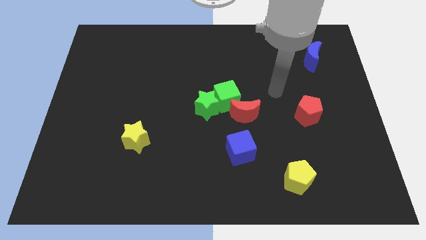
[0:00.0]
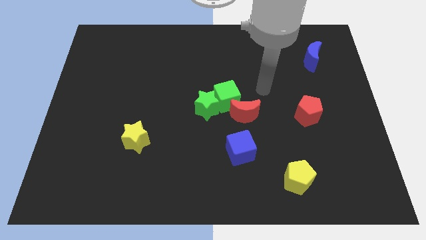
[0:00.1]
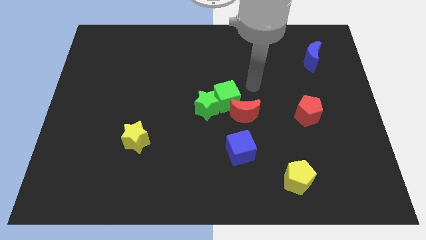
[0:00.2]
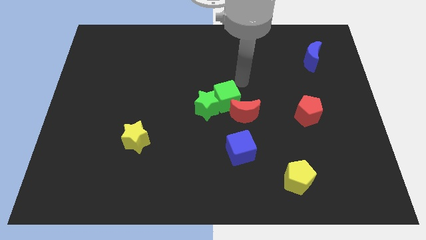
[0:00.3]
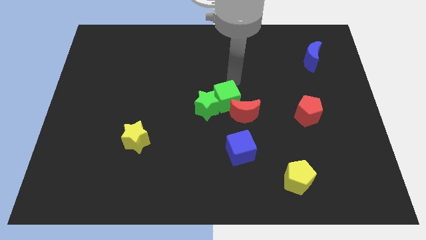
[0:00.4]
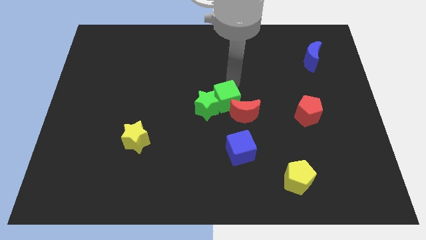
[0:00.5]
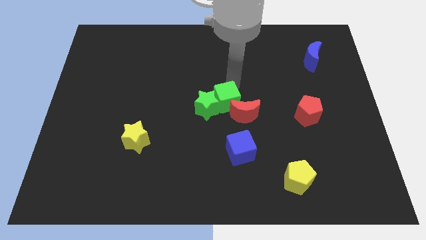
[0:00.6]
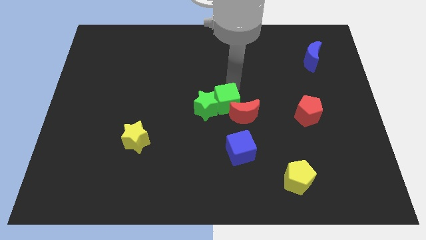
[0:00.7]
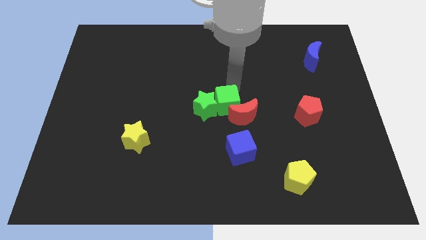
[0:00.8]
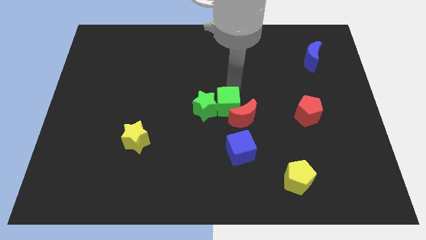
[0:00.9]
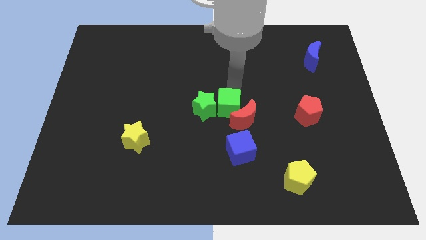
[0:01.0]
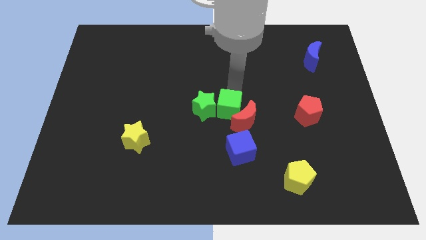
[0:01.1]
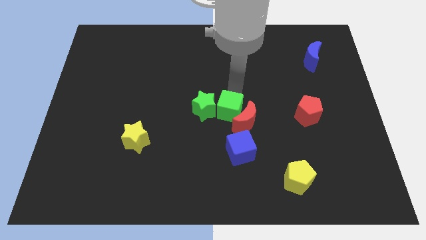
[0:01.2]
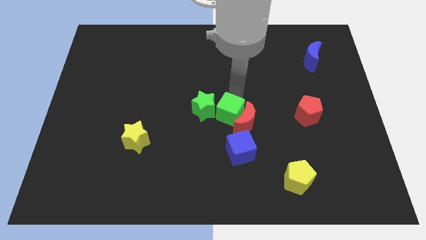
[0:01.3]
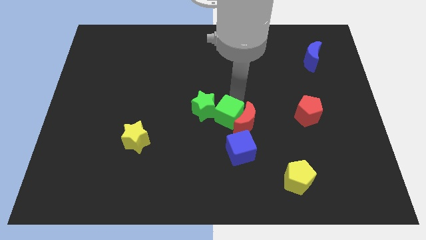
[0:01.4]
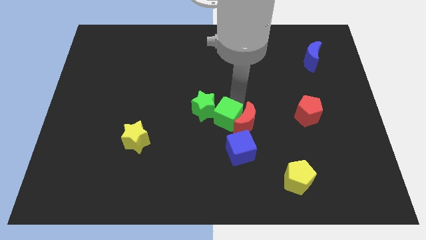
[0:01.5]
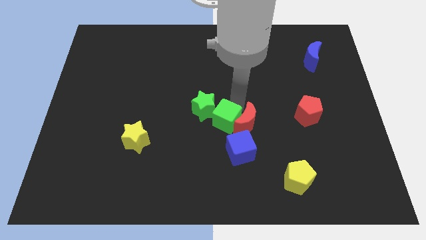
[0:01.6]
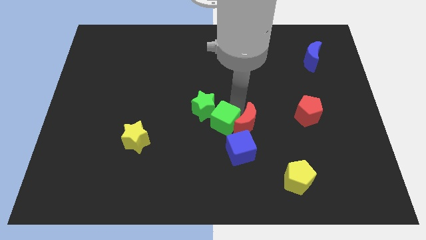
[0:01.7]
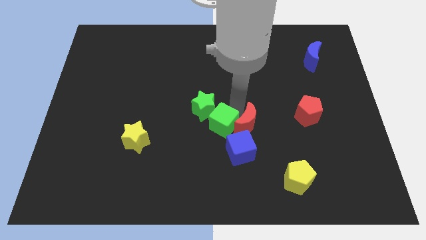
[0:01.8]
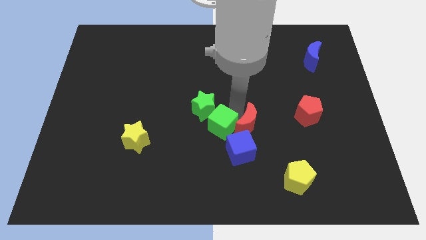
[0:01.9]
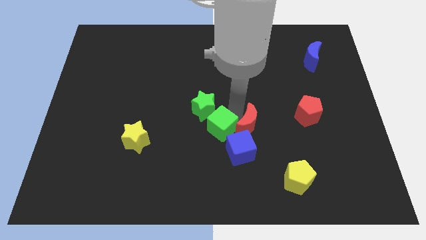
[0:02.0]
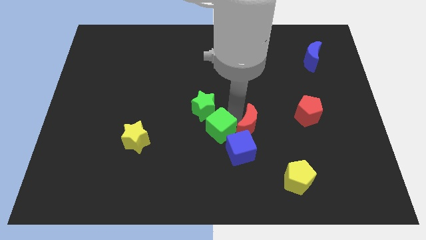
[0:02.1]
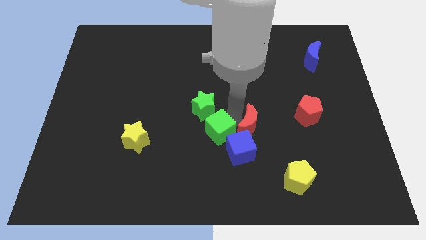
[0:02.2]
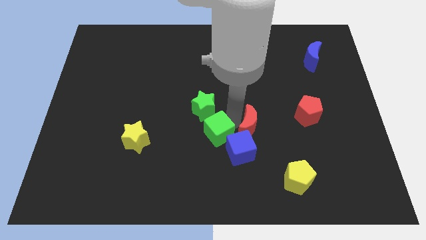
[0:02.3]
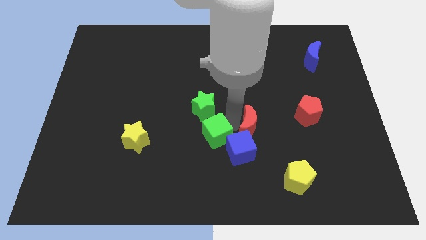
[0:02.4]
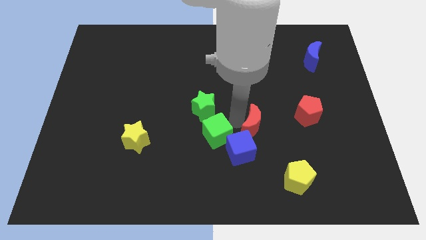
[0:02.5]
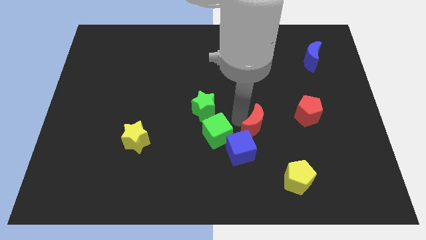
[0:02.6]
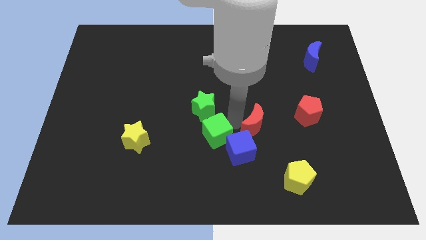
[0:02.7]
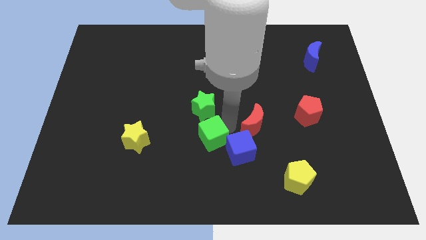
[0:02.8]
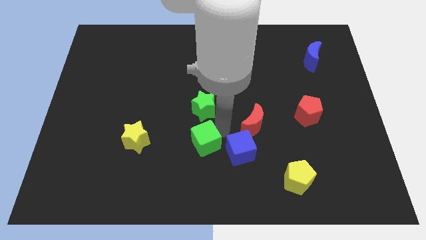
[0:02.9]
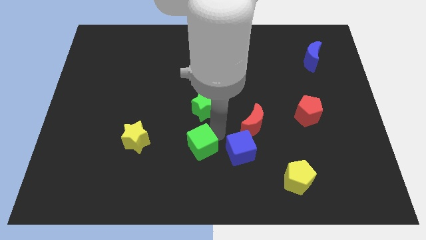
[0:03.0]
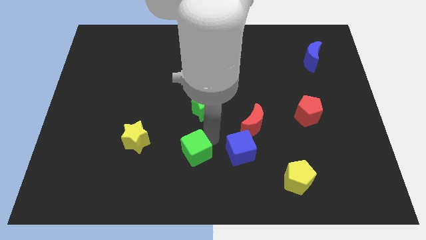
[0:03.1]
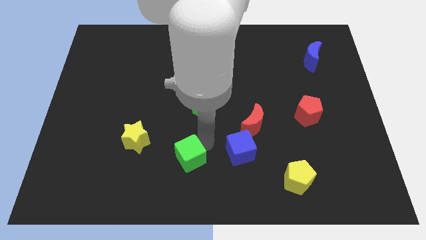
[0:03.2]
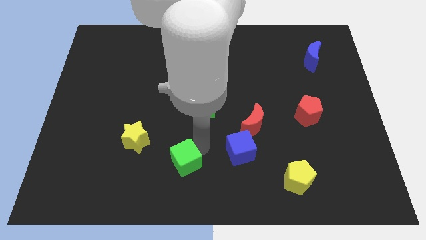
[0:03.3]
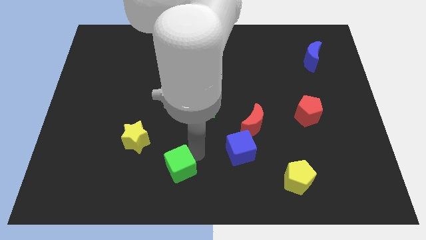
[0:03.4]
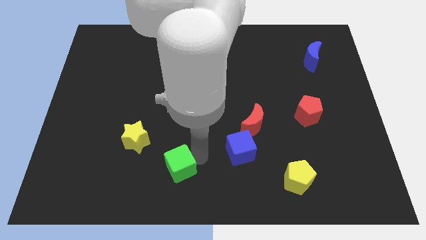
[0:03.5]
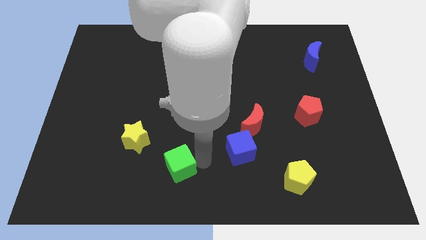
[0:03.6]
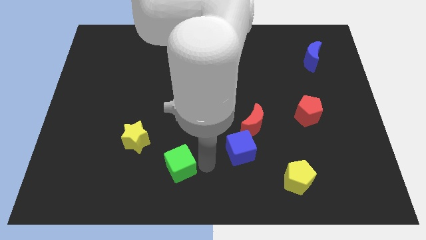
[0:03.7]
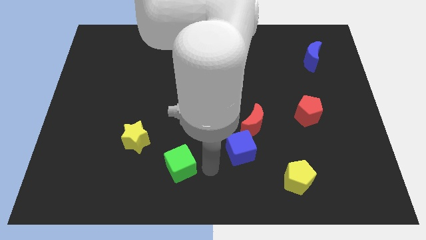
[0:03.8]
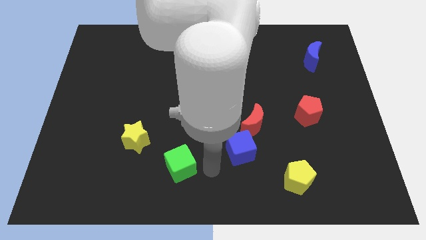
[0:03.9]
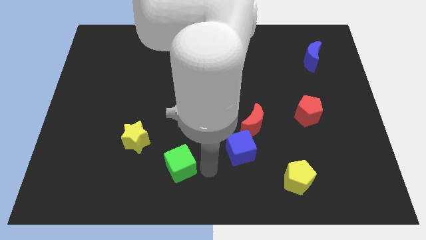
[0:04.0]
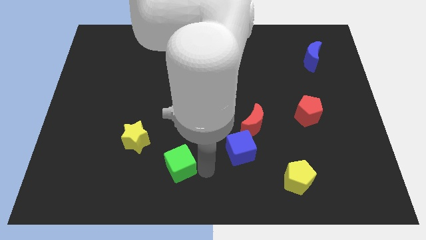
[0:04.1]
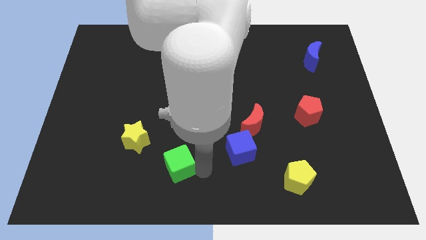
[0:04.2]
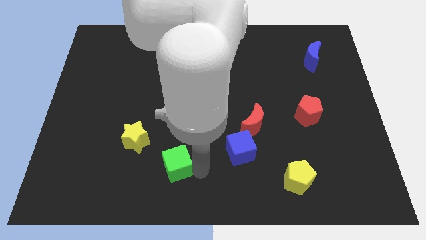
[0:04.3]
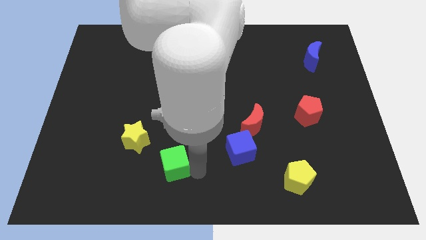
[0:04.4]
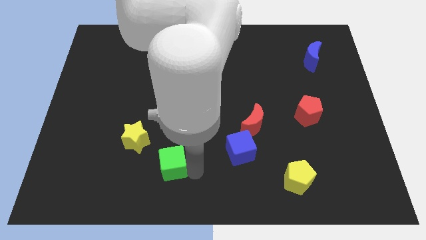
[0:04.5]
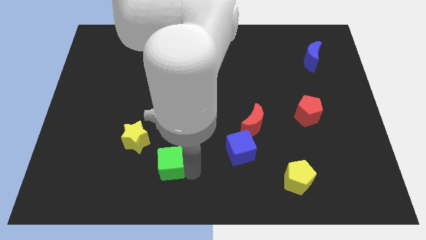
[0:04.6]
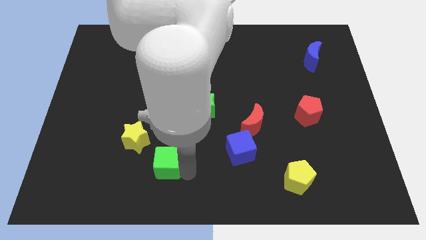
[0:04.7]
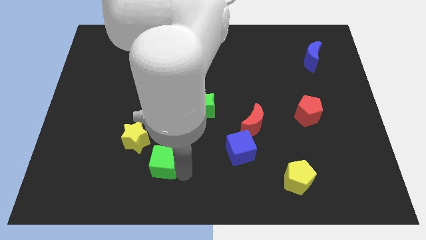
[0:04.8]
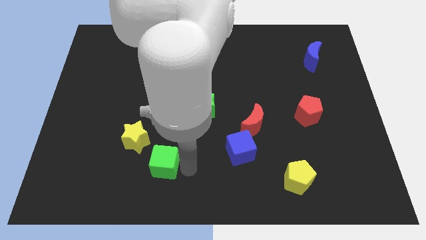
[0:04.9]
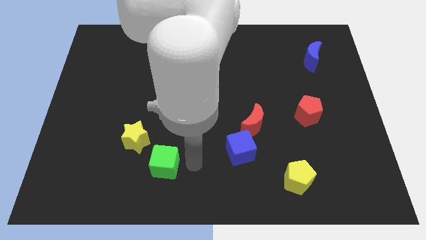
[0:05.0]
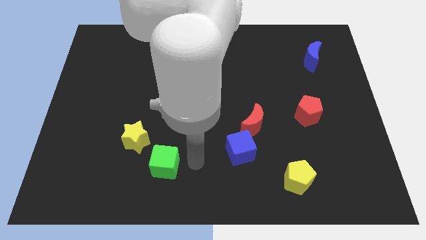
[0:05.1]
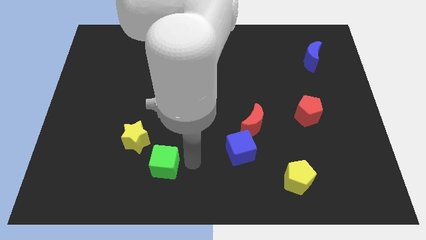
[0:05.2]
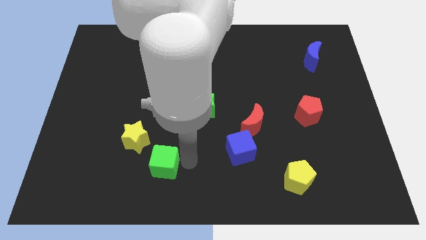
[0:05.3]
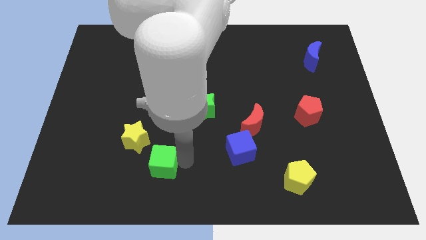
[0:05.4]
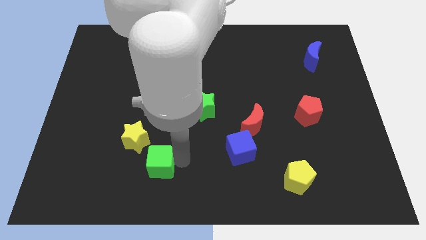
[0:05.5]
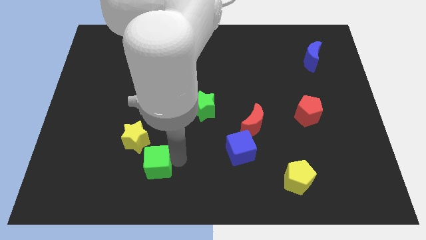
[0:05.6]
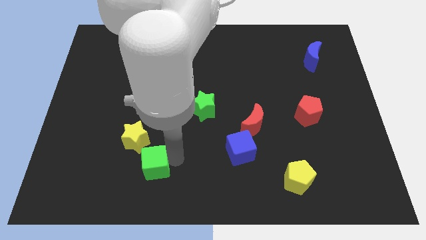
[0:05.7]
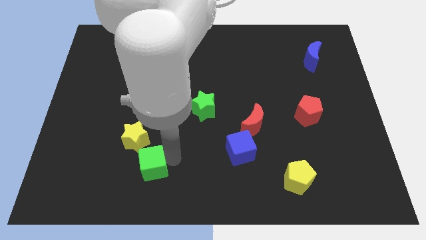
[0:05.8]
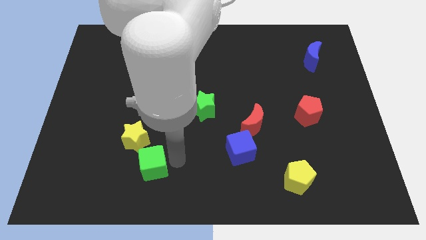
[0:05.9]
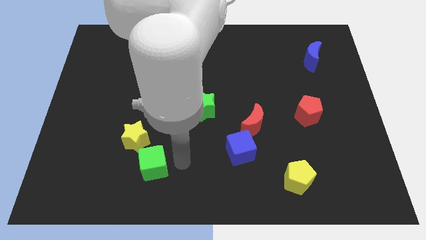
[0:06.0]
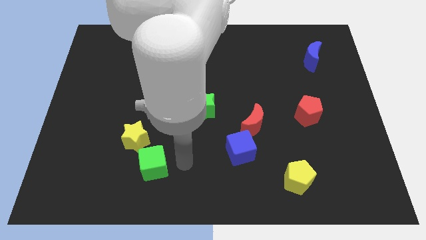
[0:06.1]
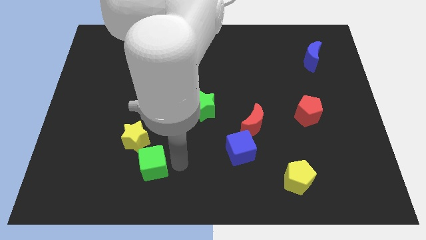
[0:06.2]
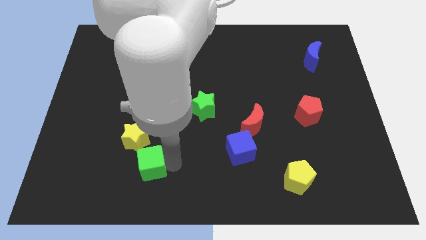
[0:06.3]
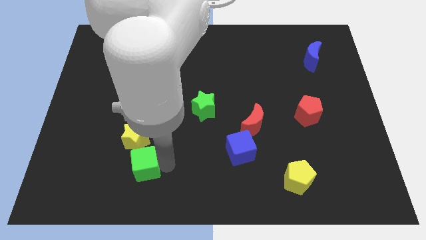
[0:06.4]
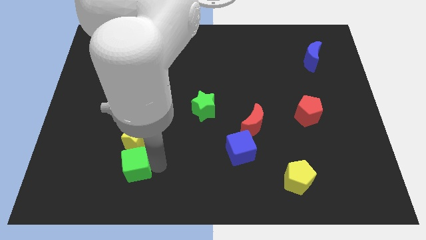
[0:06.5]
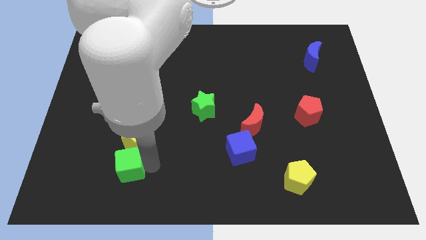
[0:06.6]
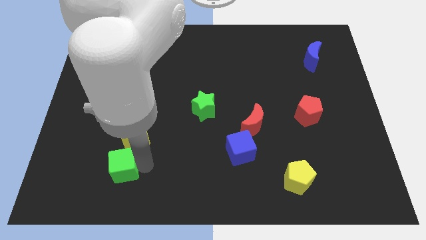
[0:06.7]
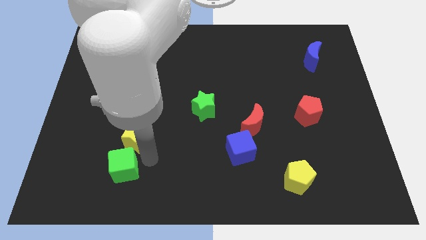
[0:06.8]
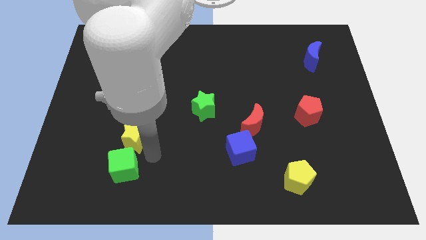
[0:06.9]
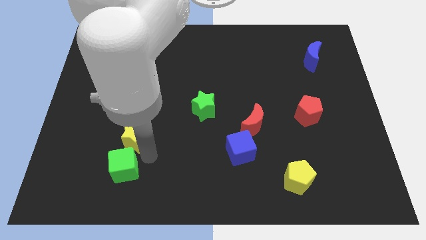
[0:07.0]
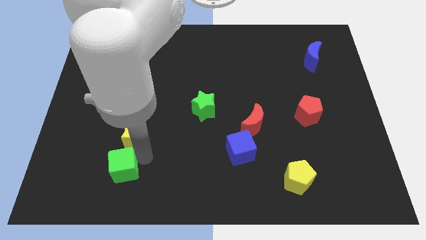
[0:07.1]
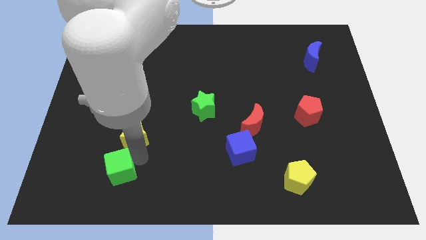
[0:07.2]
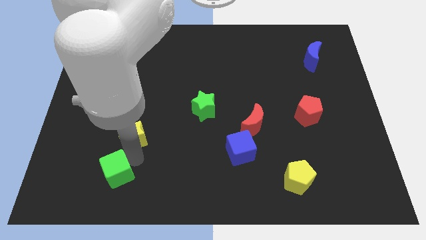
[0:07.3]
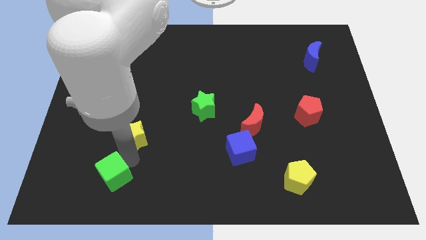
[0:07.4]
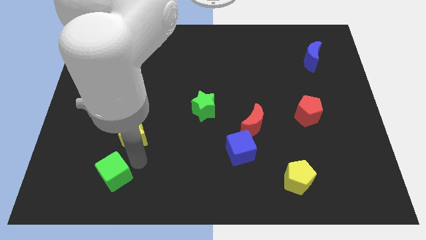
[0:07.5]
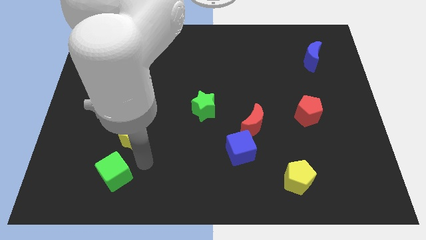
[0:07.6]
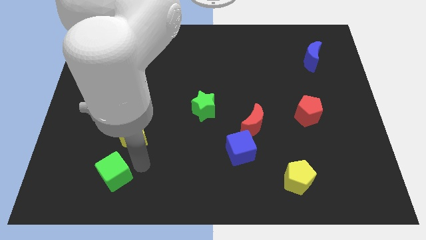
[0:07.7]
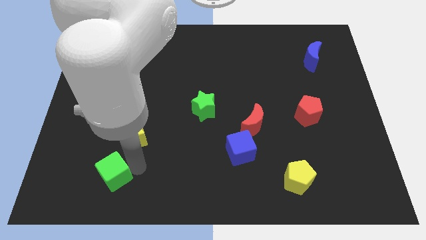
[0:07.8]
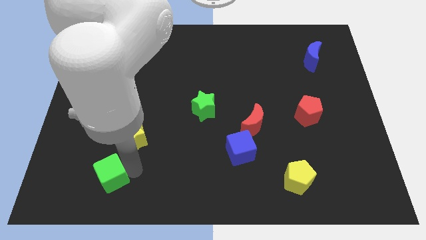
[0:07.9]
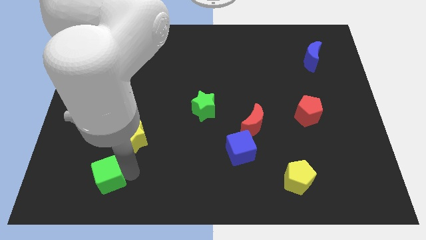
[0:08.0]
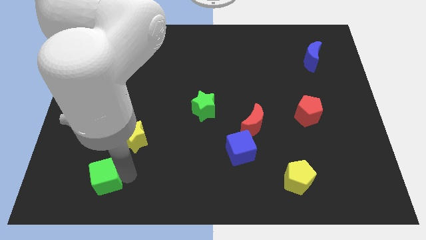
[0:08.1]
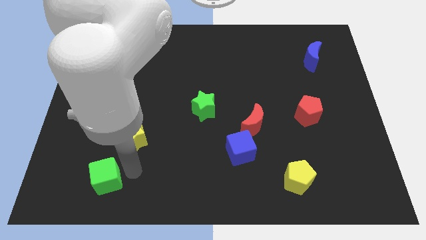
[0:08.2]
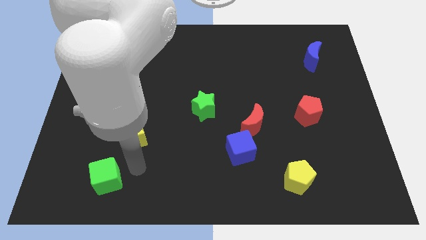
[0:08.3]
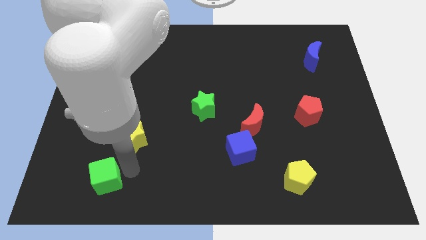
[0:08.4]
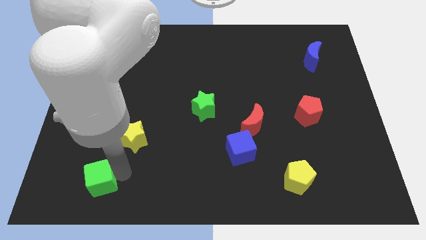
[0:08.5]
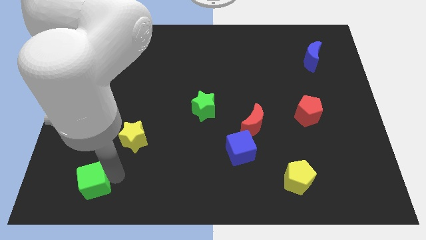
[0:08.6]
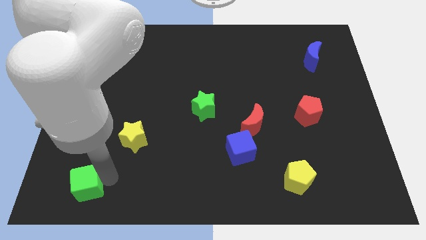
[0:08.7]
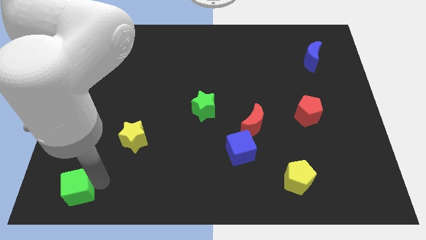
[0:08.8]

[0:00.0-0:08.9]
put the green cube to the bottom left corner
